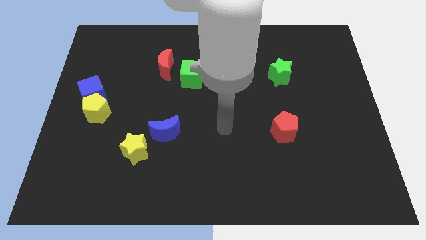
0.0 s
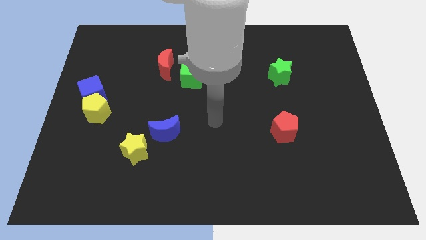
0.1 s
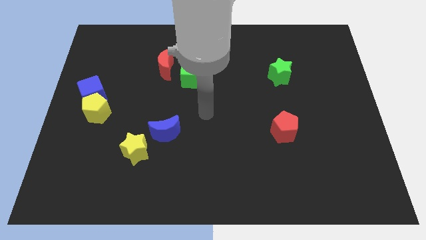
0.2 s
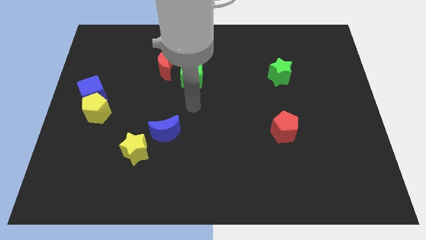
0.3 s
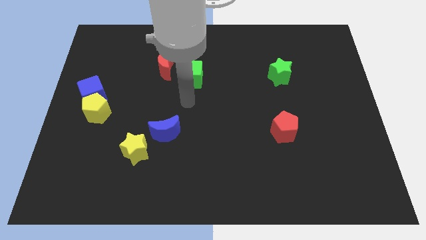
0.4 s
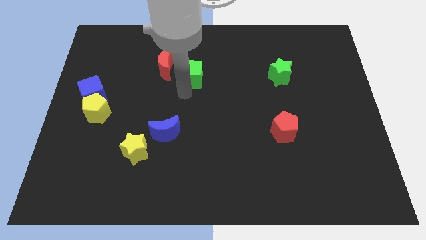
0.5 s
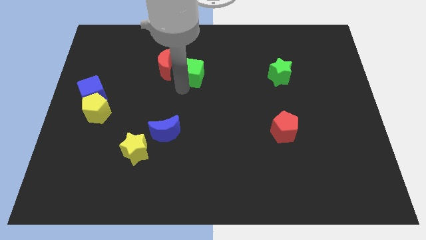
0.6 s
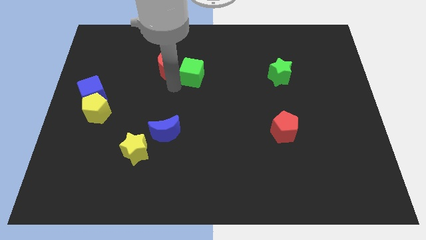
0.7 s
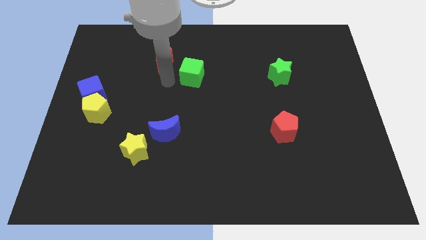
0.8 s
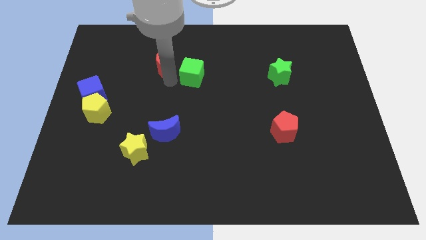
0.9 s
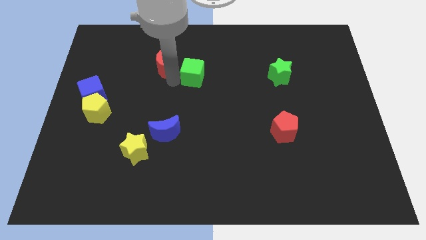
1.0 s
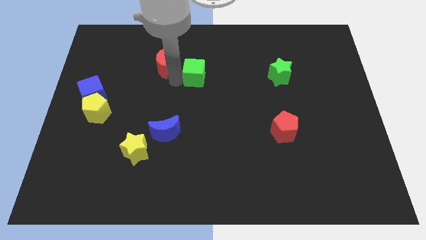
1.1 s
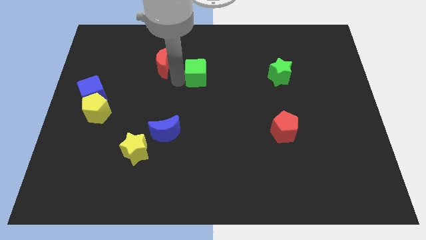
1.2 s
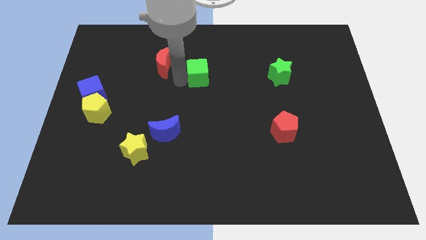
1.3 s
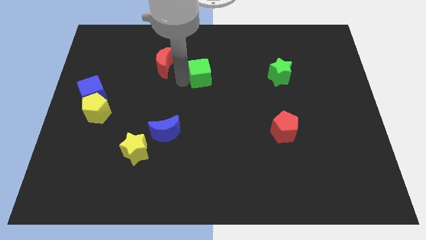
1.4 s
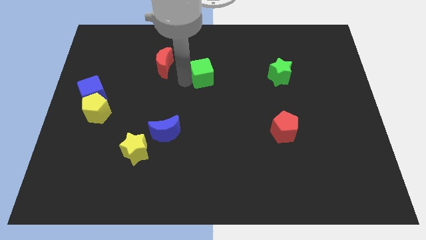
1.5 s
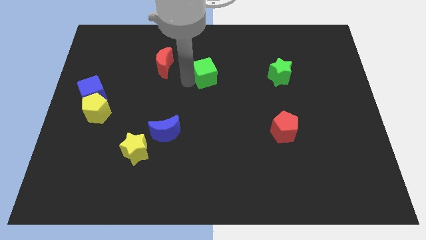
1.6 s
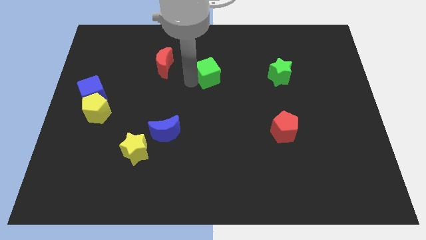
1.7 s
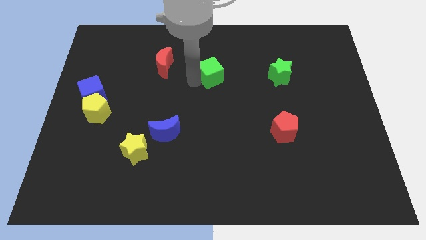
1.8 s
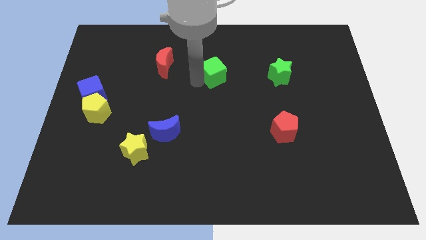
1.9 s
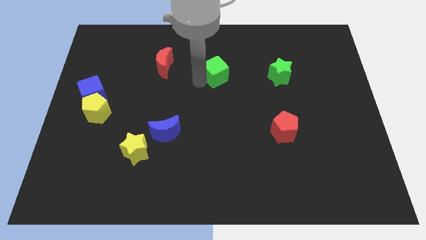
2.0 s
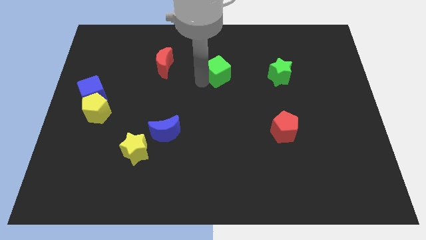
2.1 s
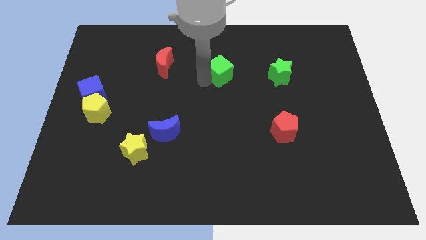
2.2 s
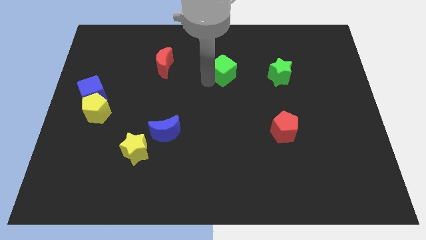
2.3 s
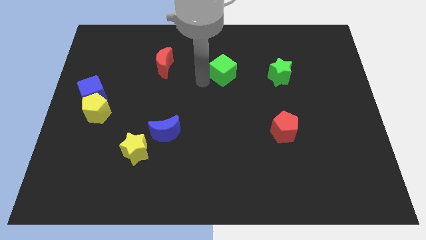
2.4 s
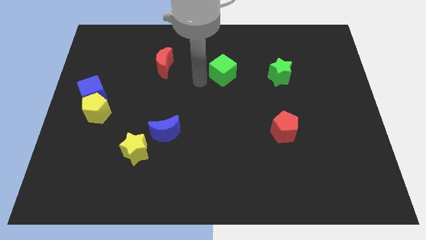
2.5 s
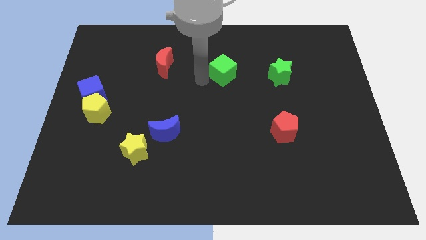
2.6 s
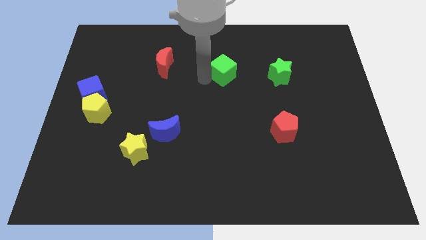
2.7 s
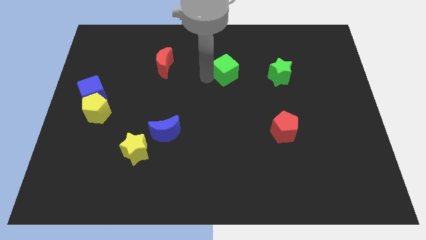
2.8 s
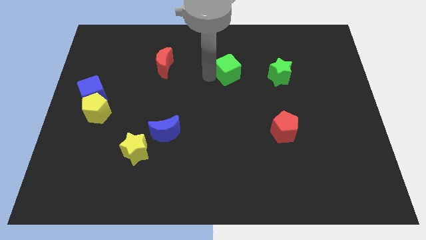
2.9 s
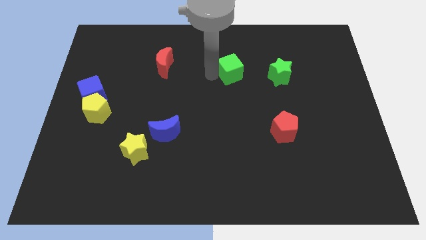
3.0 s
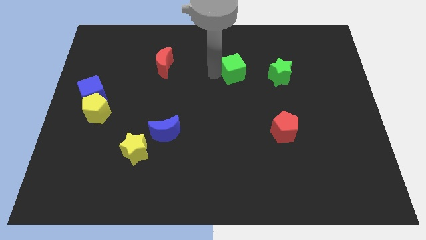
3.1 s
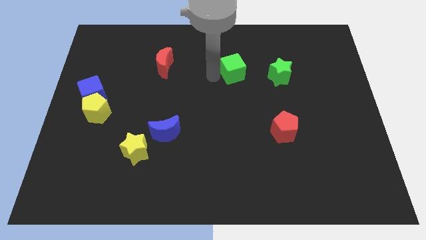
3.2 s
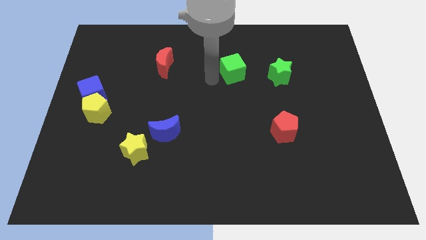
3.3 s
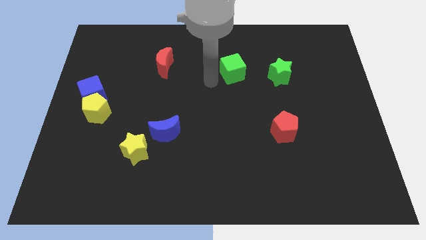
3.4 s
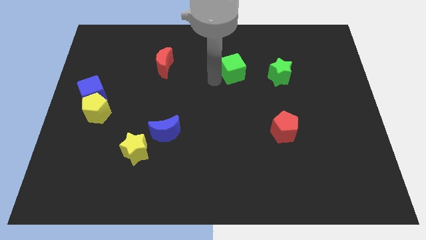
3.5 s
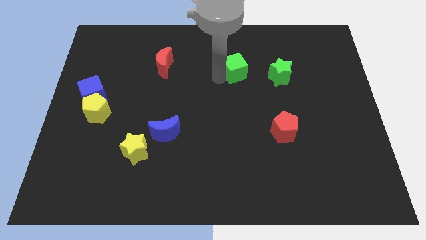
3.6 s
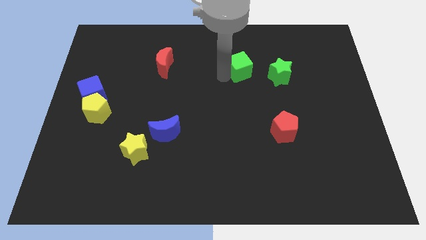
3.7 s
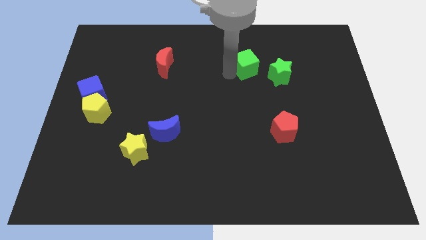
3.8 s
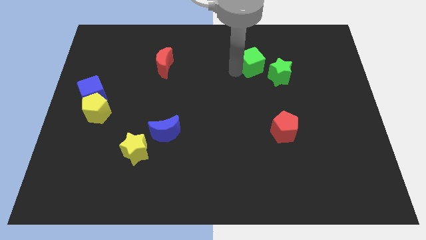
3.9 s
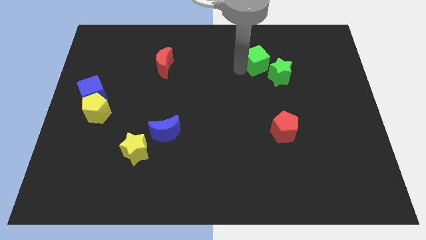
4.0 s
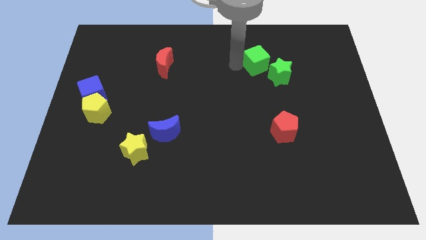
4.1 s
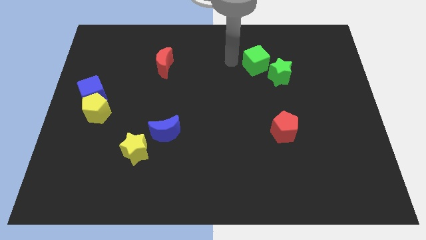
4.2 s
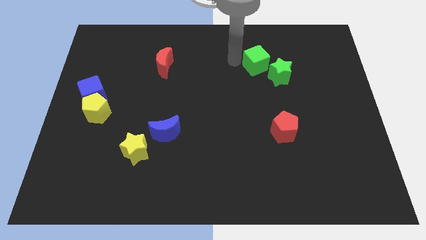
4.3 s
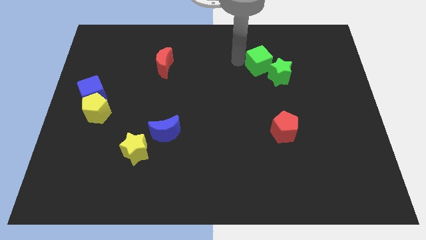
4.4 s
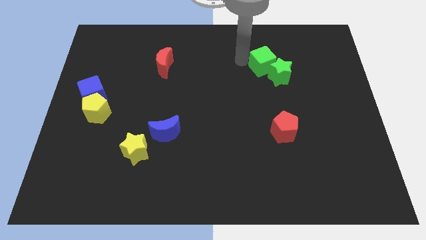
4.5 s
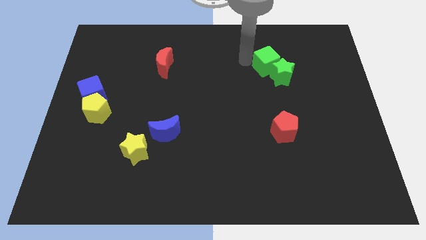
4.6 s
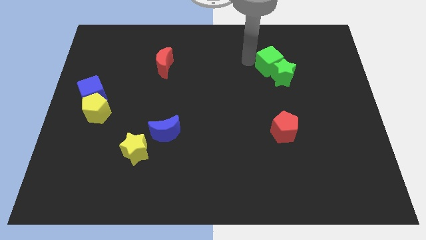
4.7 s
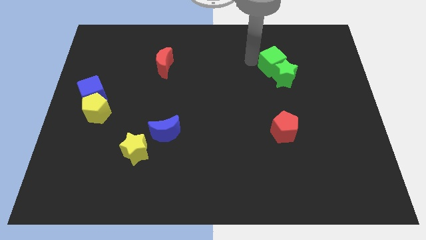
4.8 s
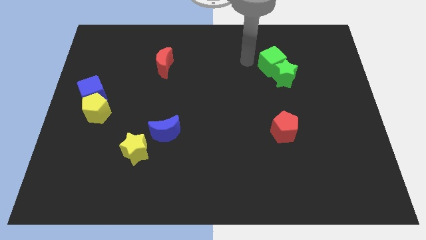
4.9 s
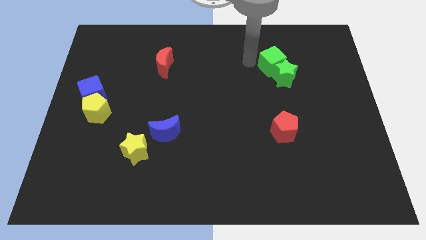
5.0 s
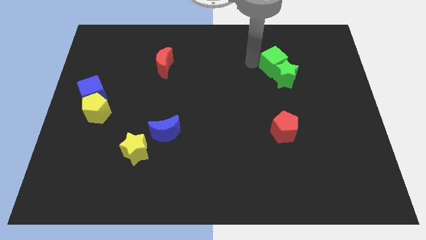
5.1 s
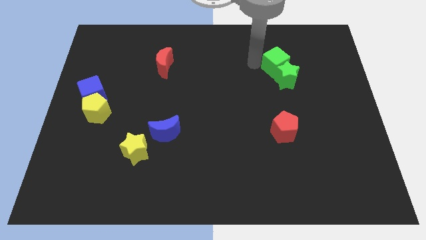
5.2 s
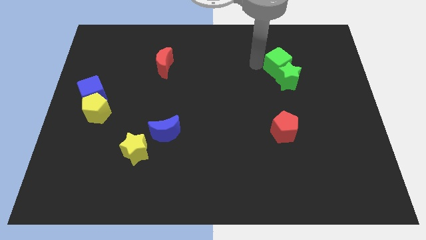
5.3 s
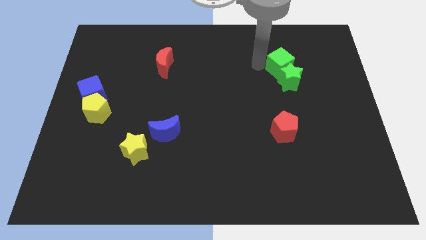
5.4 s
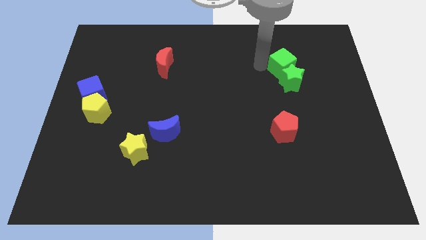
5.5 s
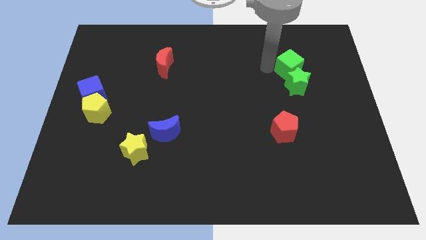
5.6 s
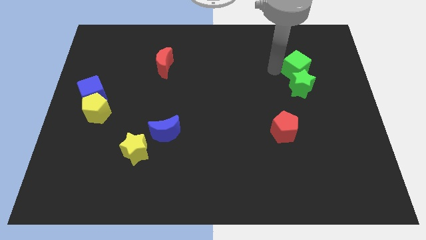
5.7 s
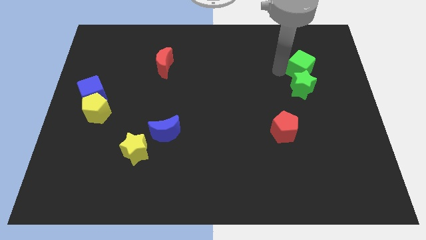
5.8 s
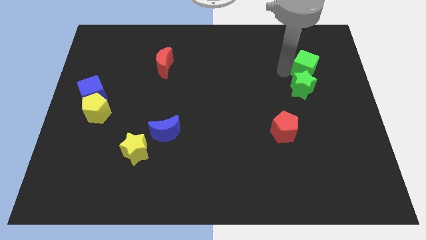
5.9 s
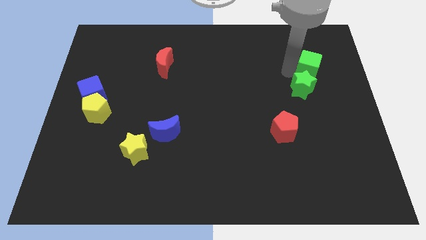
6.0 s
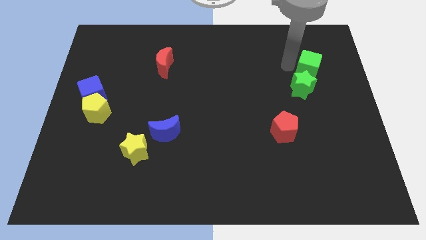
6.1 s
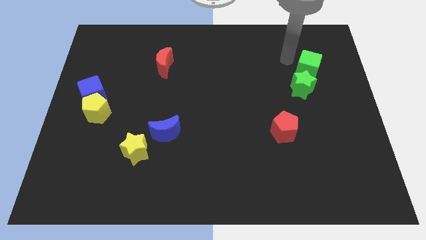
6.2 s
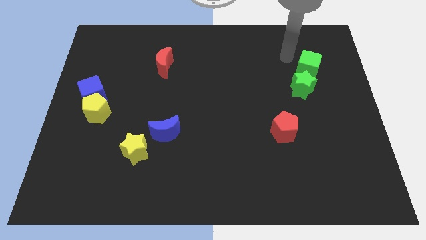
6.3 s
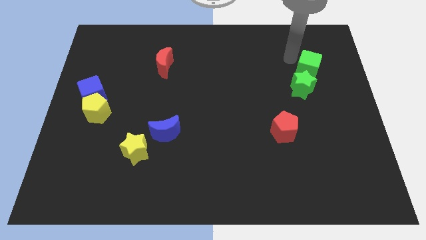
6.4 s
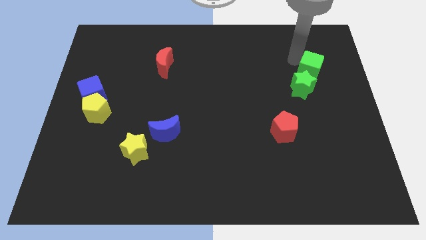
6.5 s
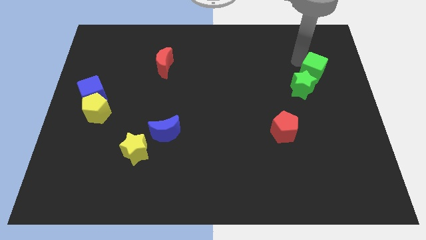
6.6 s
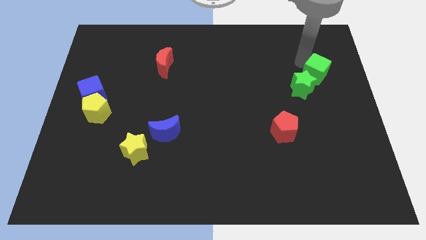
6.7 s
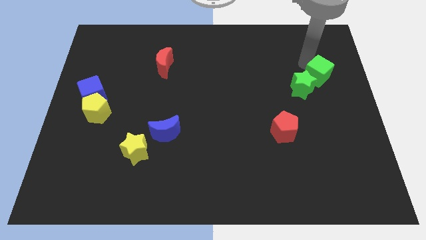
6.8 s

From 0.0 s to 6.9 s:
slide the green cube right of the green star
